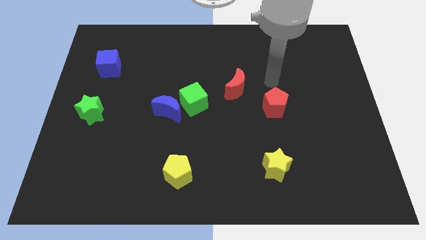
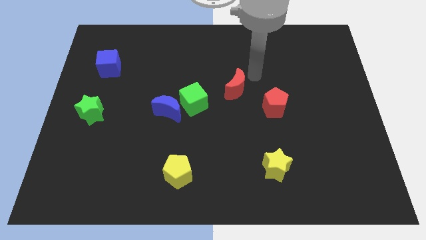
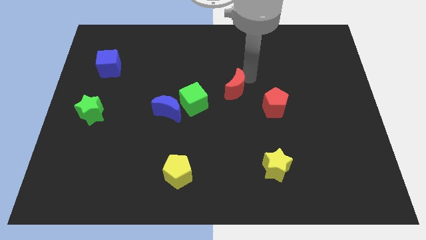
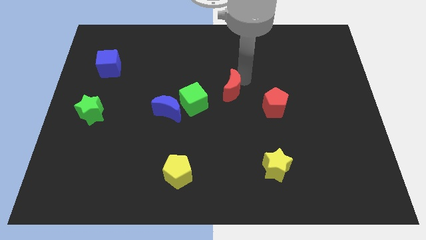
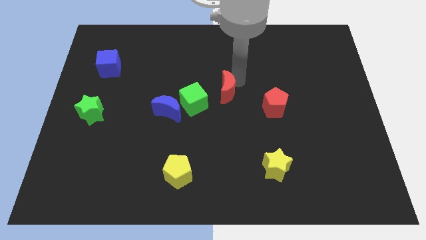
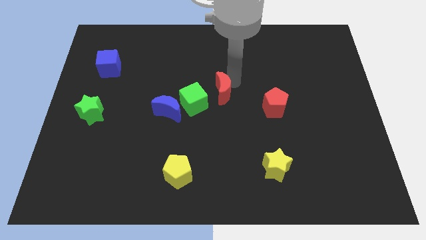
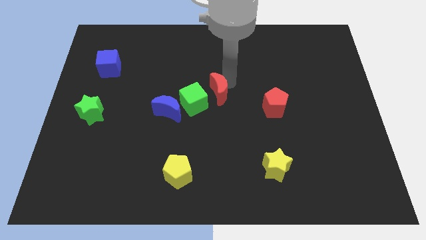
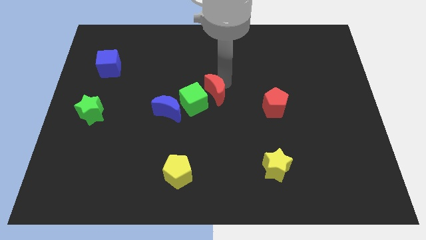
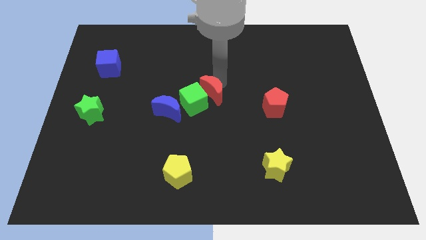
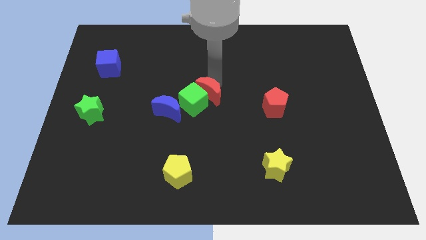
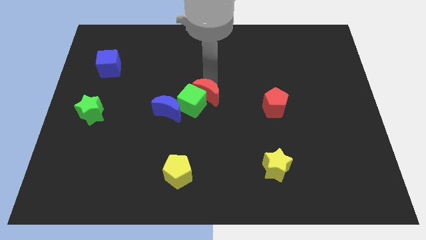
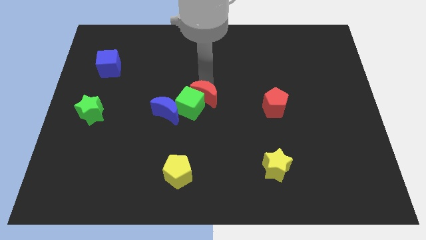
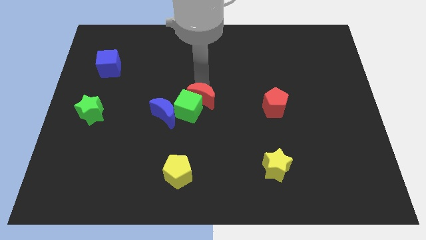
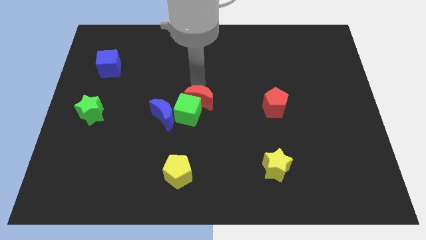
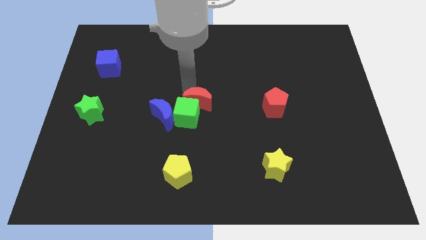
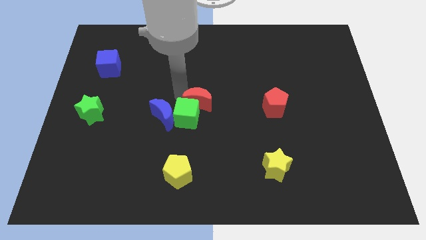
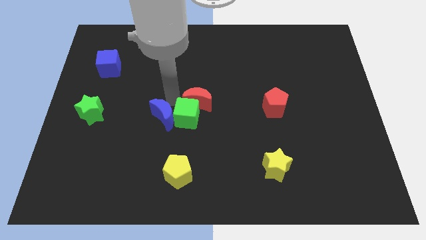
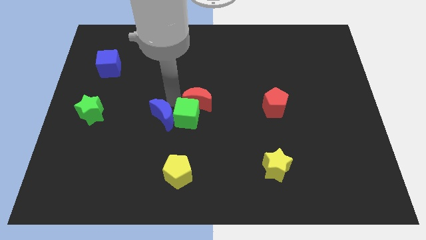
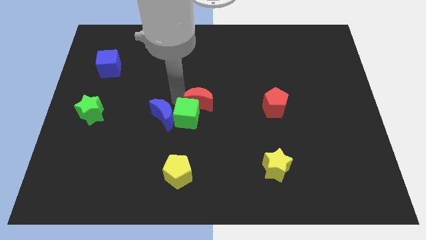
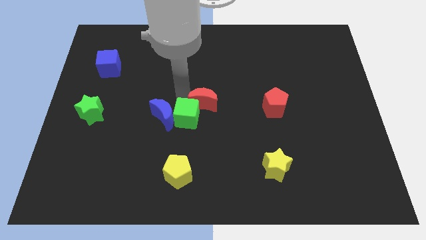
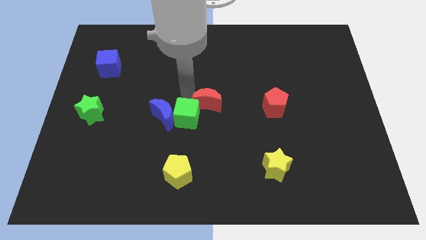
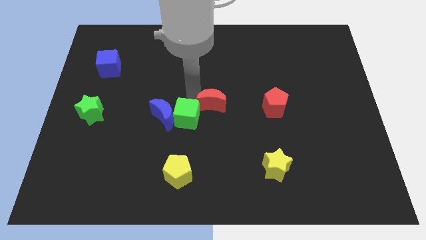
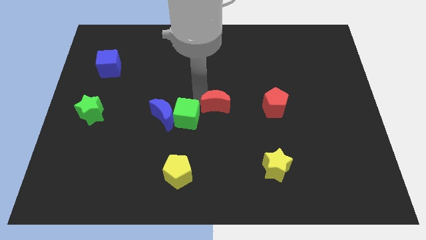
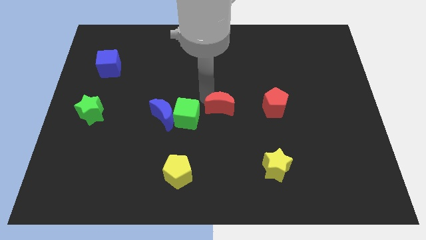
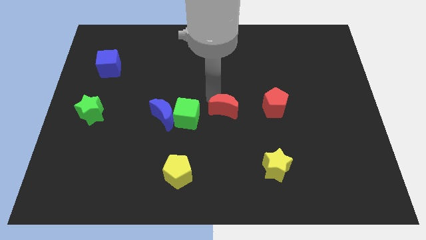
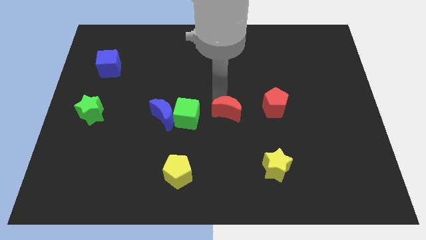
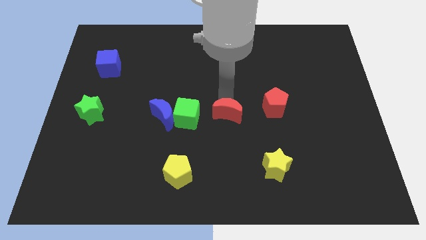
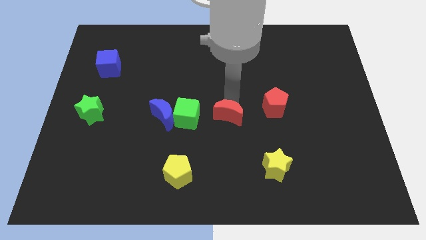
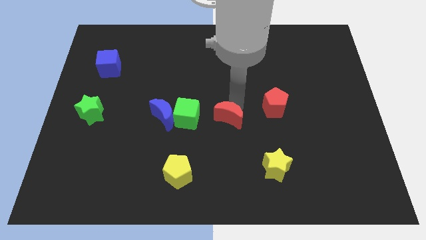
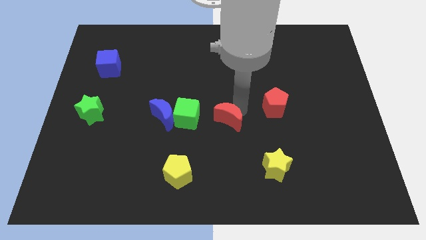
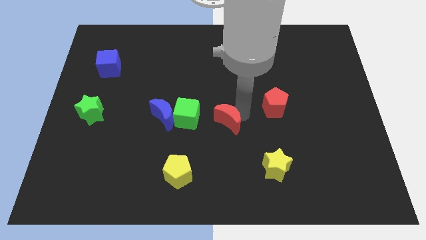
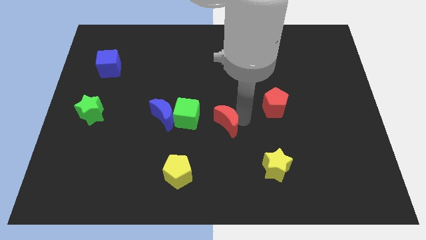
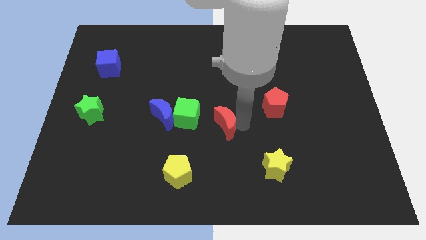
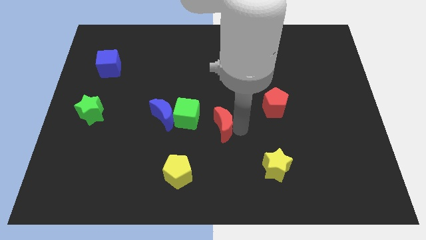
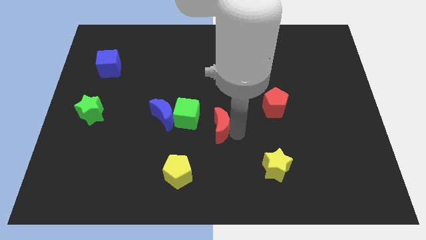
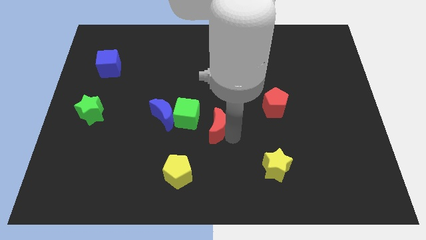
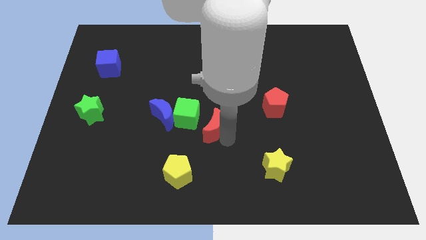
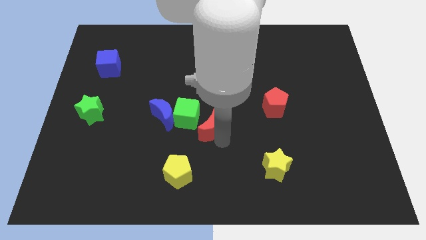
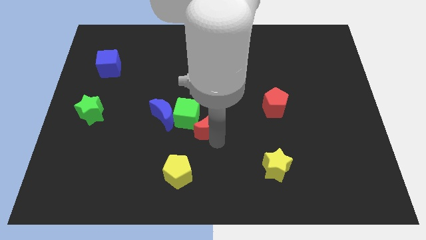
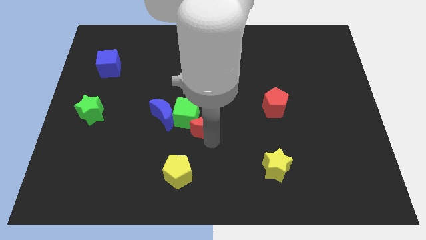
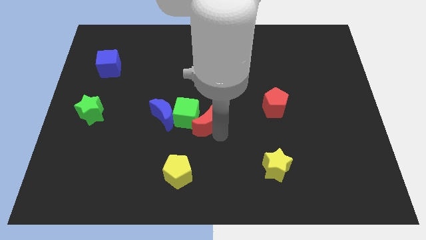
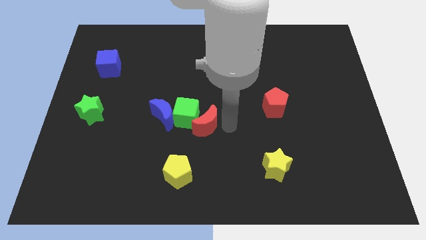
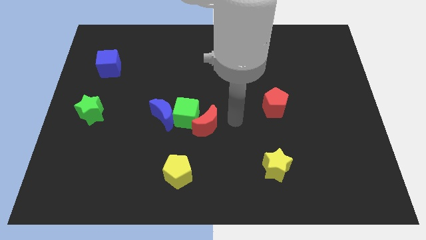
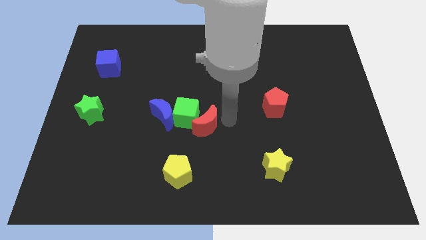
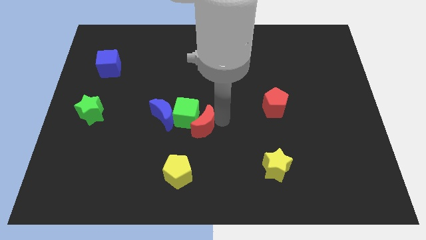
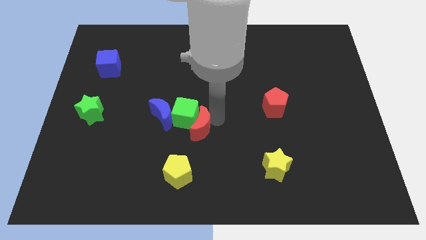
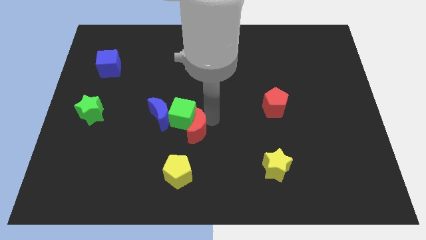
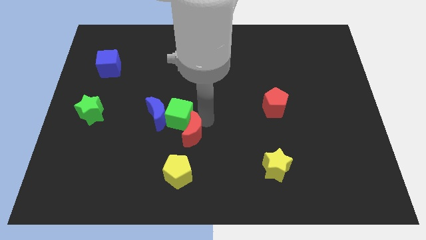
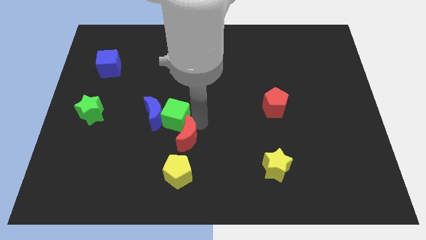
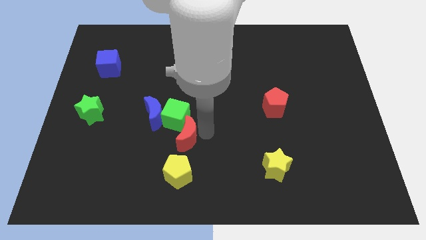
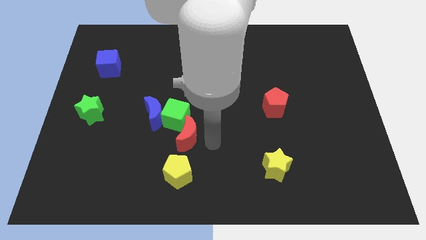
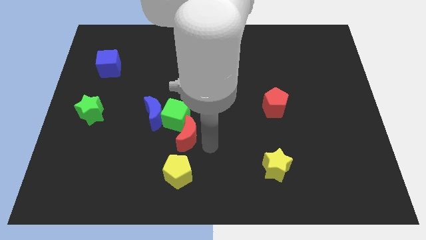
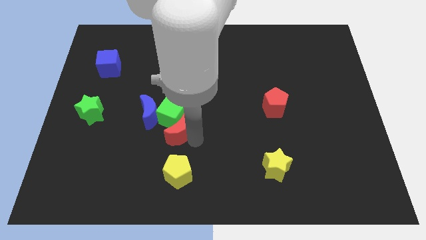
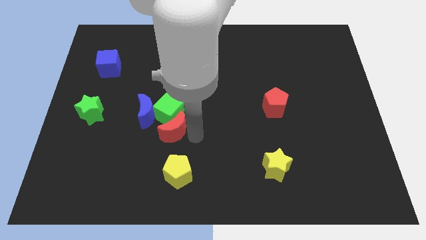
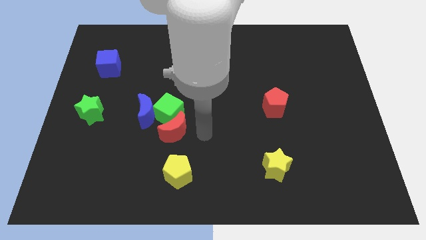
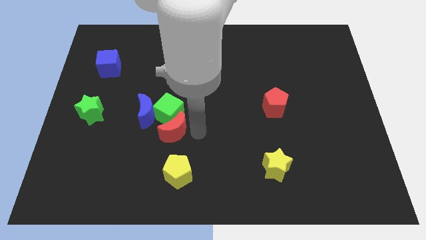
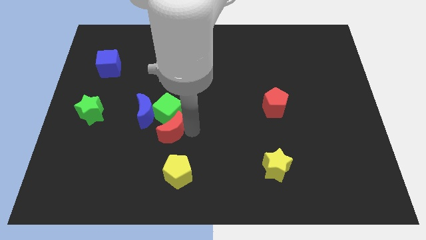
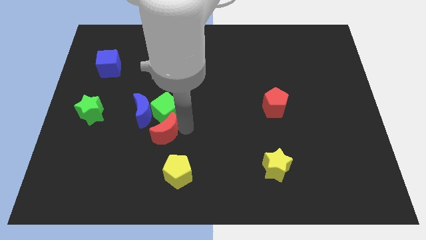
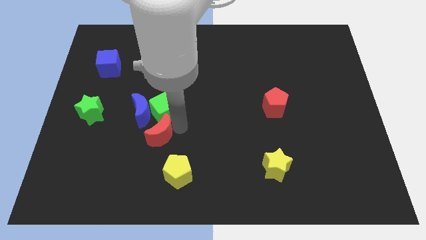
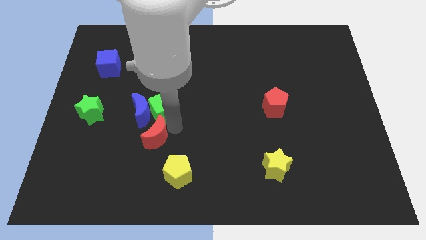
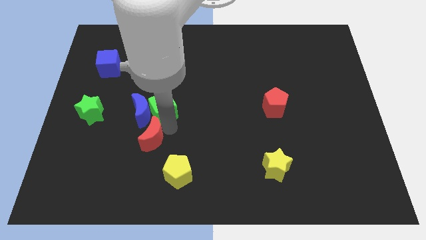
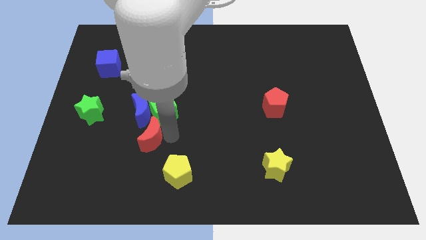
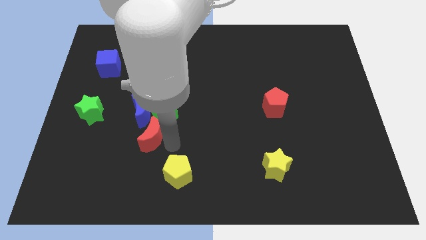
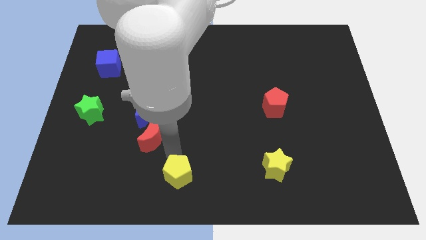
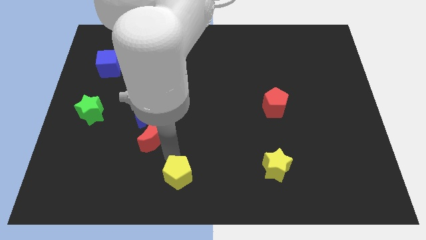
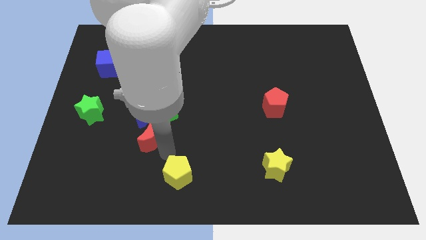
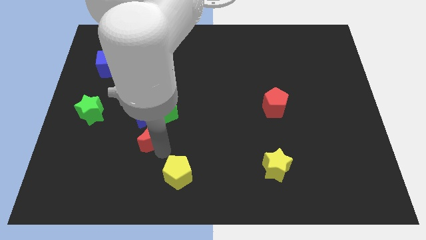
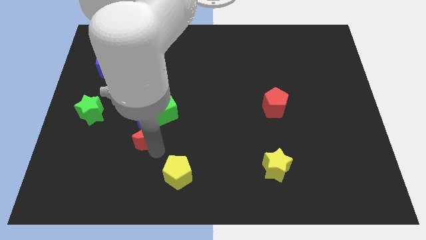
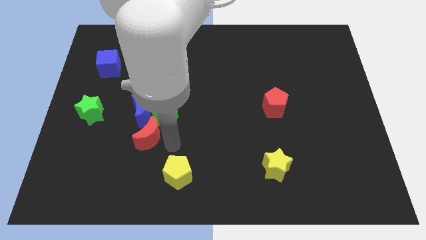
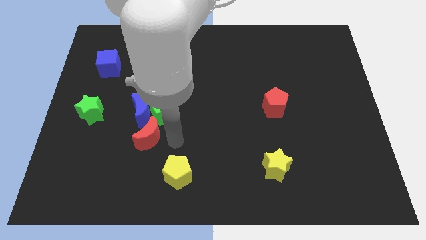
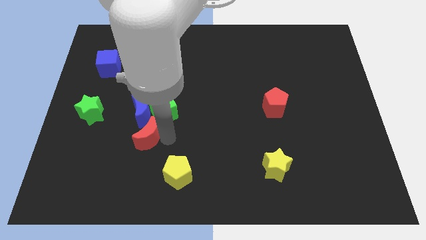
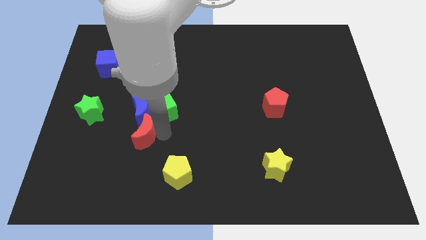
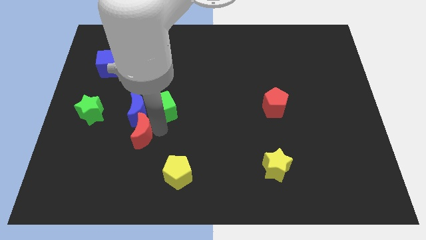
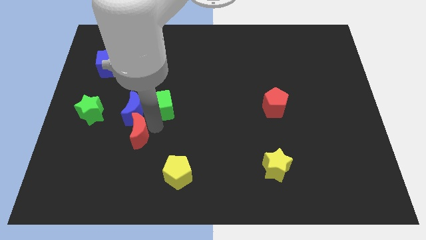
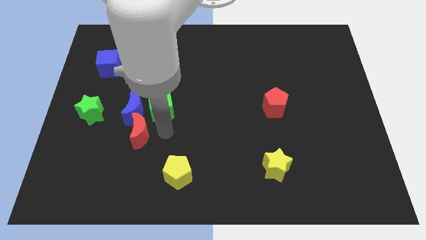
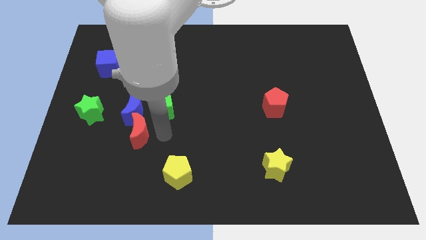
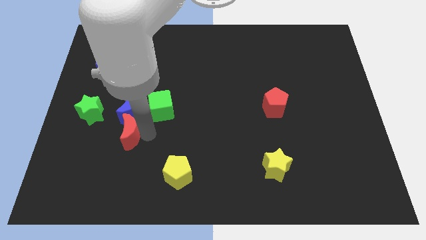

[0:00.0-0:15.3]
slide the red moon to the bottom right of the green star

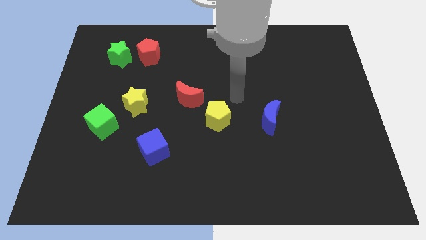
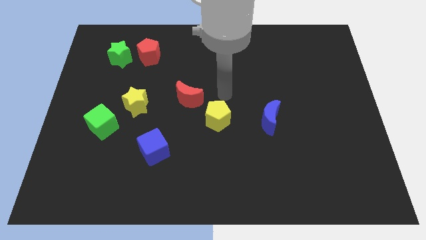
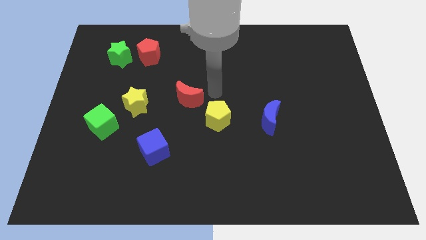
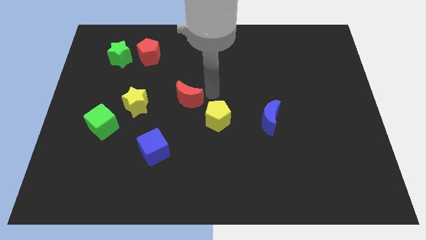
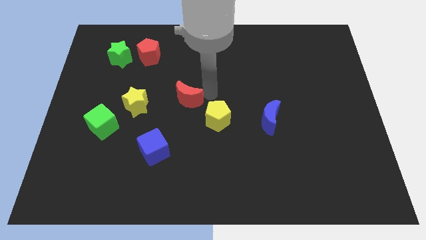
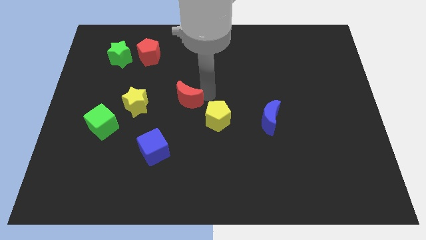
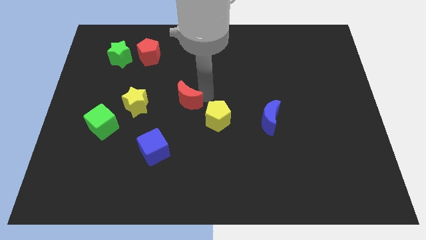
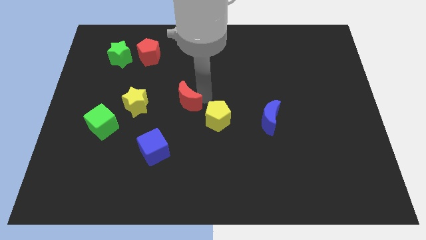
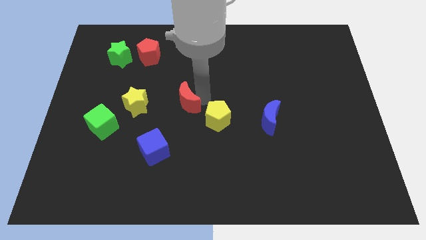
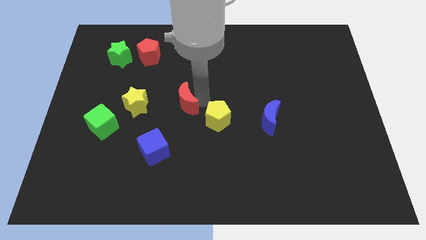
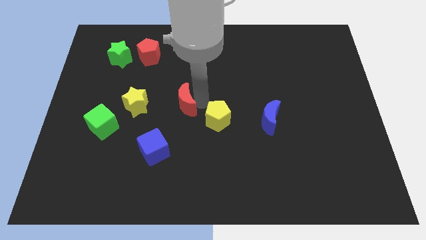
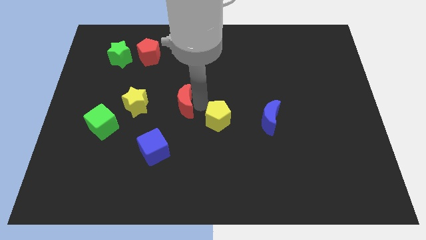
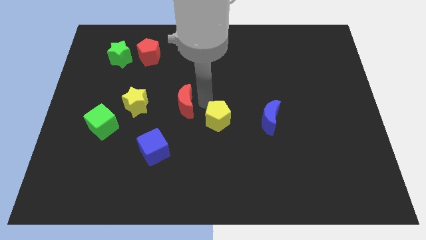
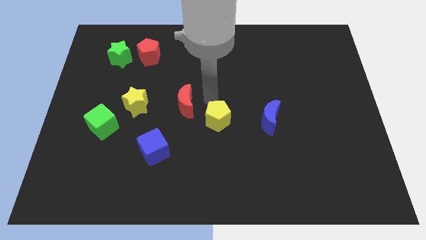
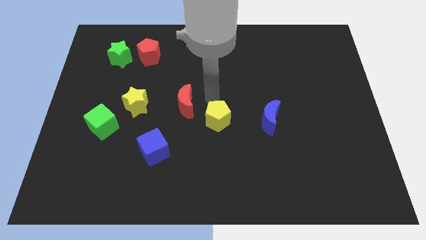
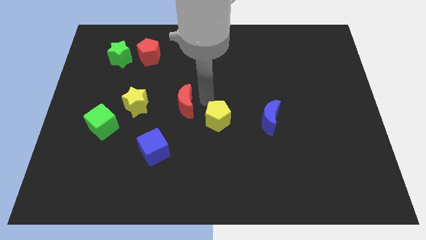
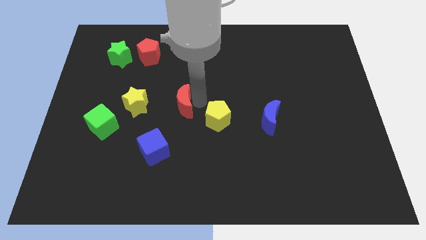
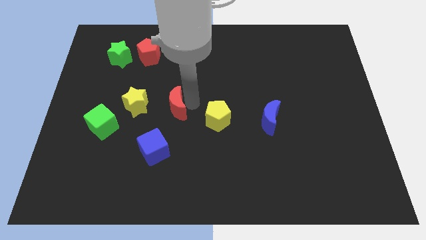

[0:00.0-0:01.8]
put the red moon to the top of the blue cube
